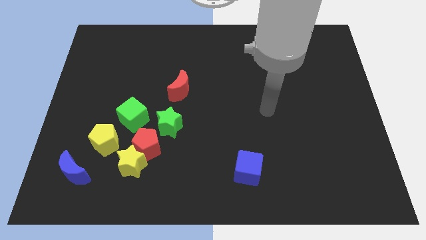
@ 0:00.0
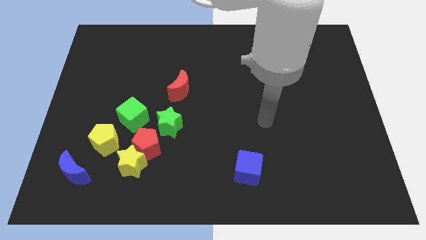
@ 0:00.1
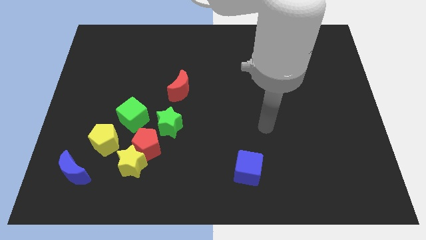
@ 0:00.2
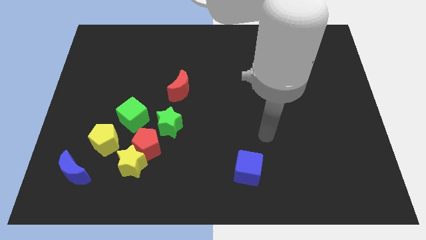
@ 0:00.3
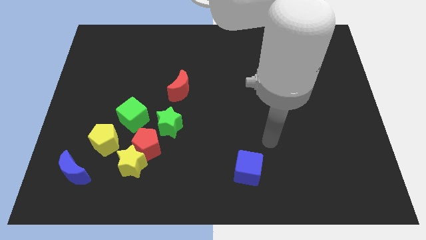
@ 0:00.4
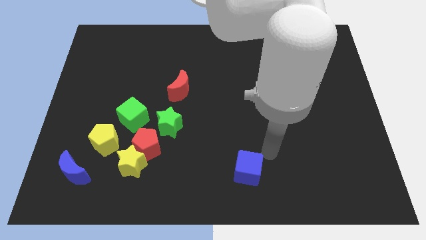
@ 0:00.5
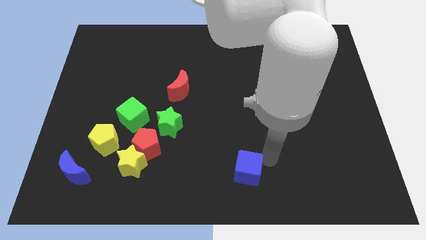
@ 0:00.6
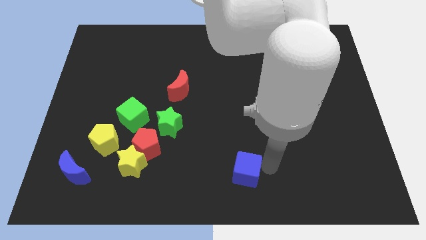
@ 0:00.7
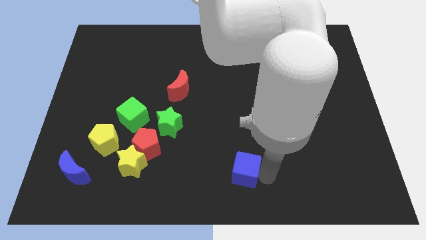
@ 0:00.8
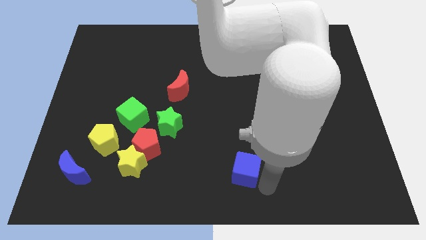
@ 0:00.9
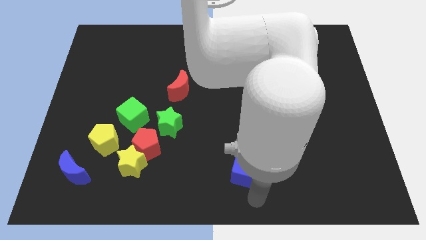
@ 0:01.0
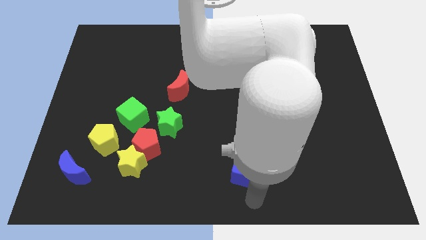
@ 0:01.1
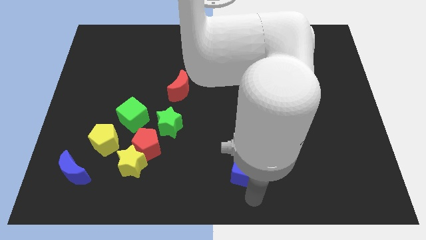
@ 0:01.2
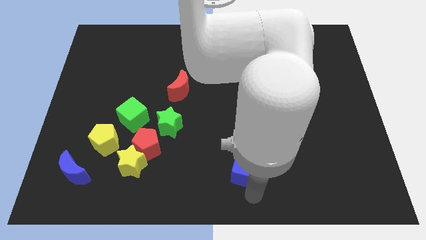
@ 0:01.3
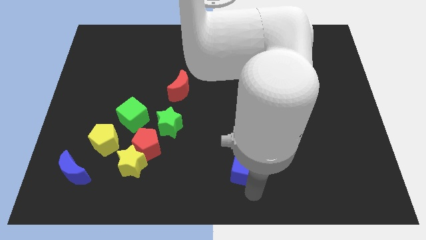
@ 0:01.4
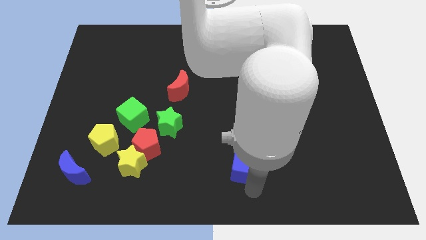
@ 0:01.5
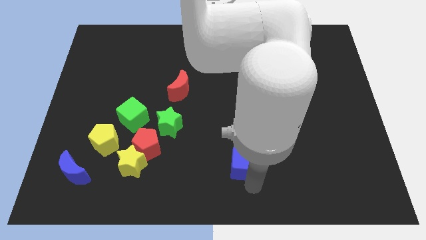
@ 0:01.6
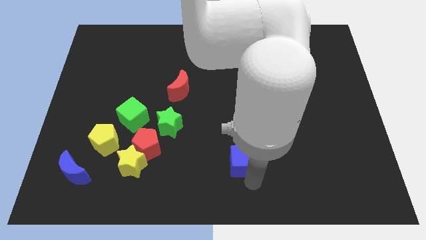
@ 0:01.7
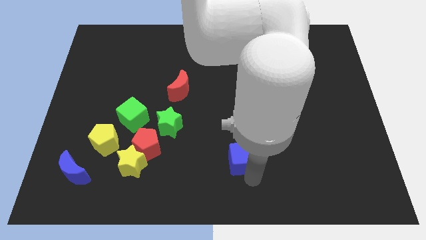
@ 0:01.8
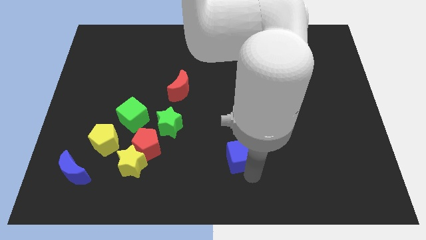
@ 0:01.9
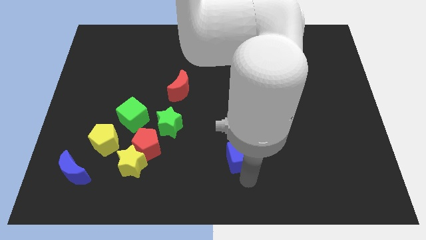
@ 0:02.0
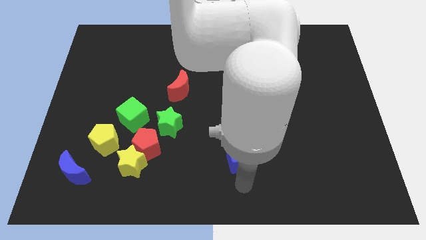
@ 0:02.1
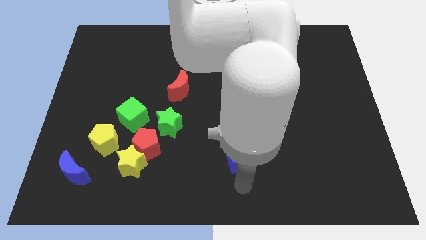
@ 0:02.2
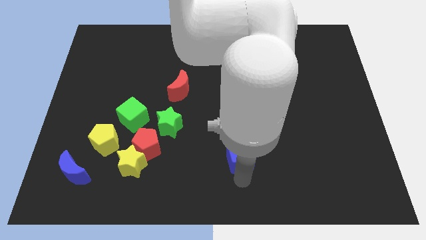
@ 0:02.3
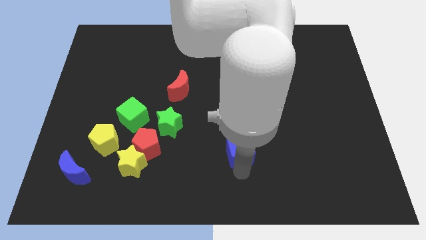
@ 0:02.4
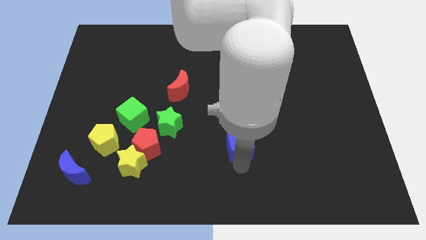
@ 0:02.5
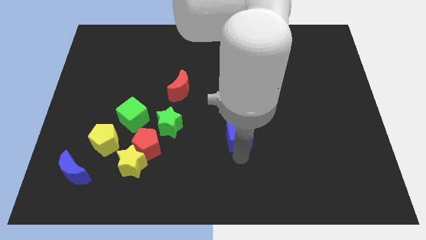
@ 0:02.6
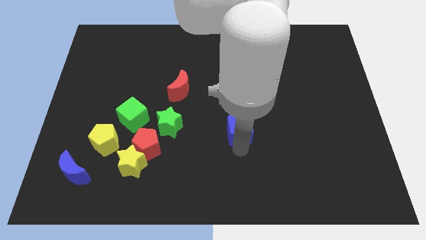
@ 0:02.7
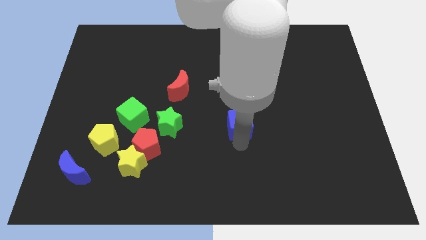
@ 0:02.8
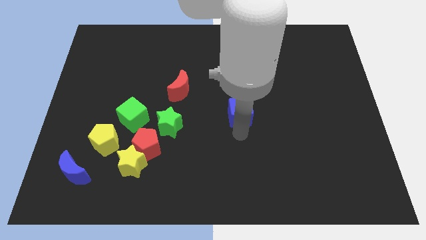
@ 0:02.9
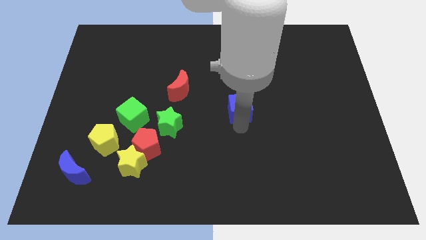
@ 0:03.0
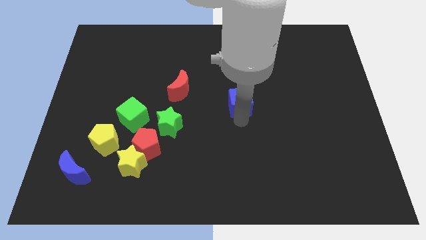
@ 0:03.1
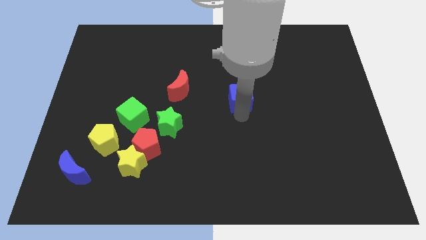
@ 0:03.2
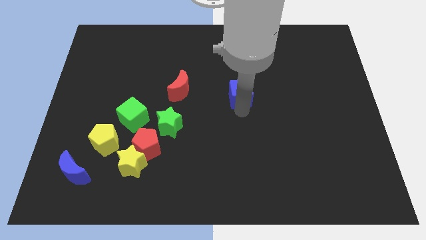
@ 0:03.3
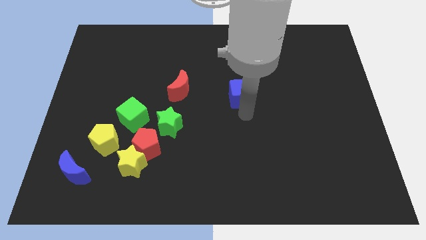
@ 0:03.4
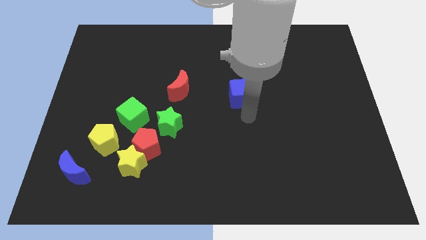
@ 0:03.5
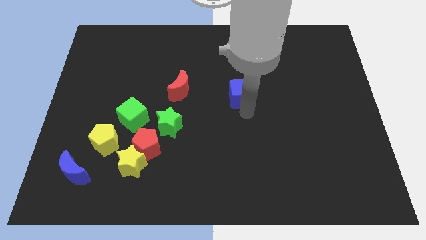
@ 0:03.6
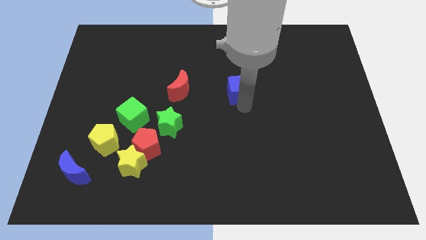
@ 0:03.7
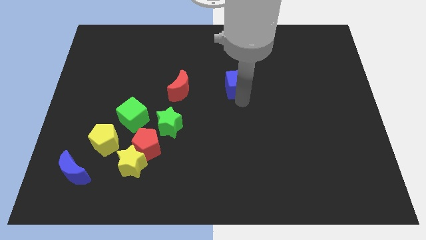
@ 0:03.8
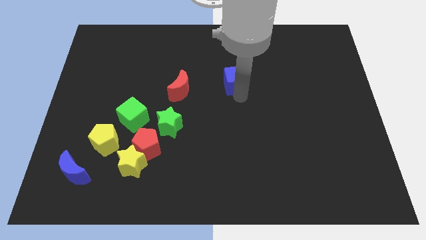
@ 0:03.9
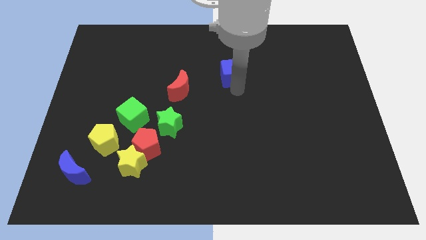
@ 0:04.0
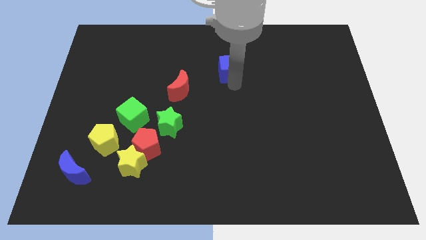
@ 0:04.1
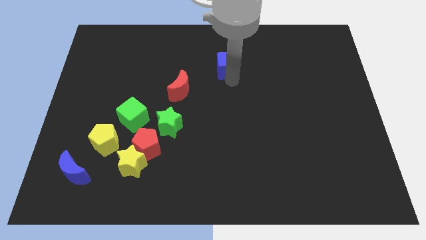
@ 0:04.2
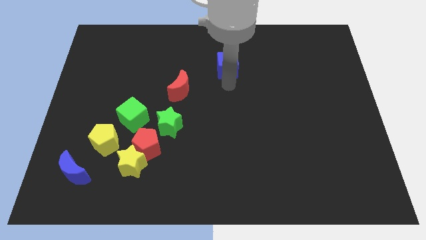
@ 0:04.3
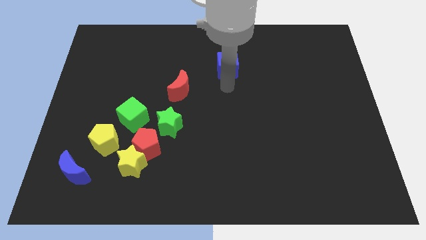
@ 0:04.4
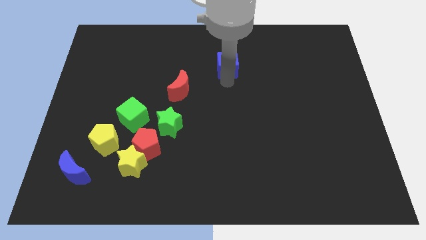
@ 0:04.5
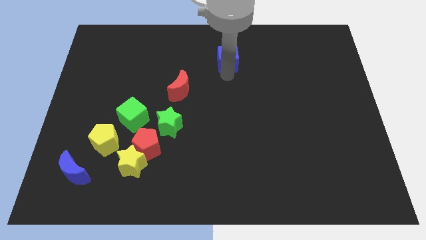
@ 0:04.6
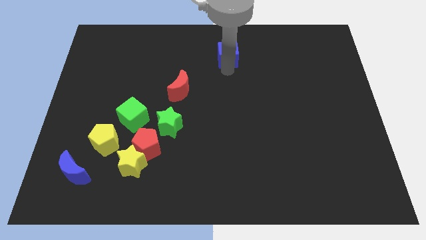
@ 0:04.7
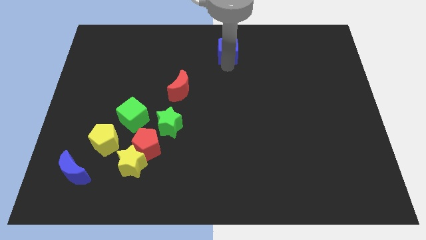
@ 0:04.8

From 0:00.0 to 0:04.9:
put the blue cube to the top side

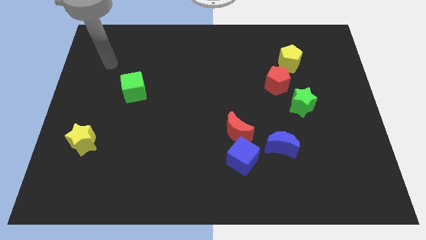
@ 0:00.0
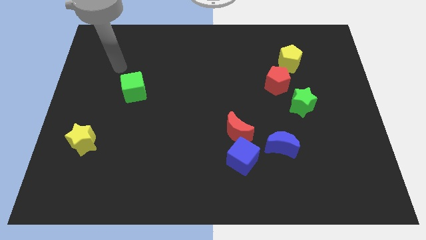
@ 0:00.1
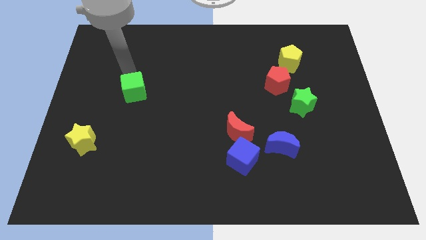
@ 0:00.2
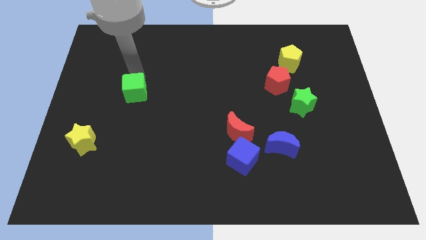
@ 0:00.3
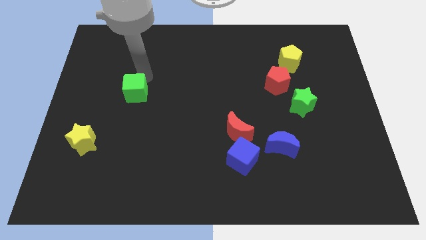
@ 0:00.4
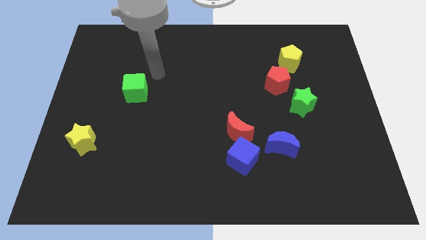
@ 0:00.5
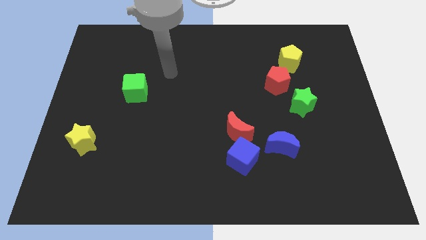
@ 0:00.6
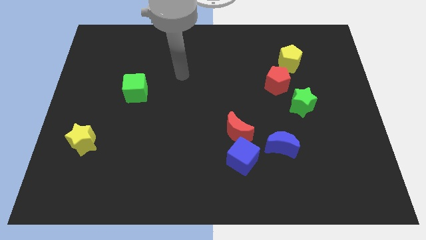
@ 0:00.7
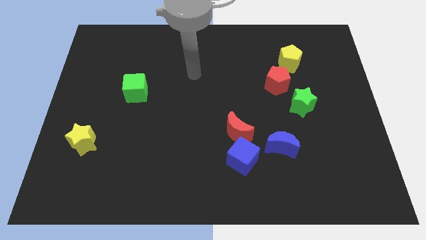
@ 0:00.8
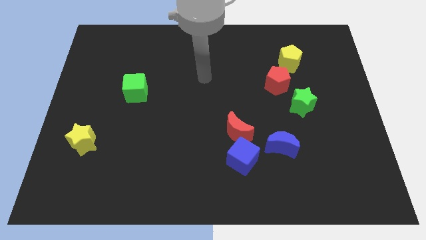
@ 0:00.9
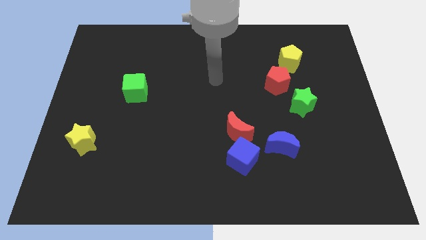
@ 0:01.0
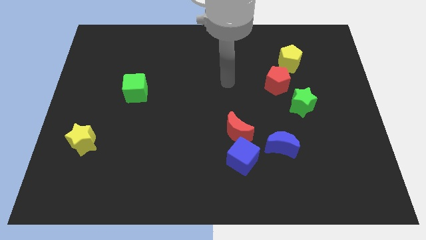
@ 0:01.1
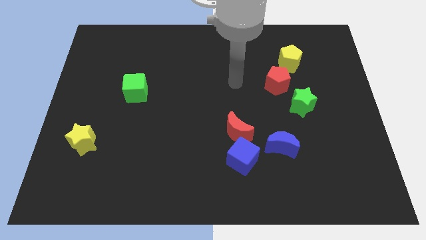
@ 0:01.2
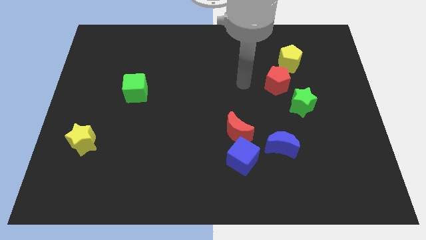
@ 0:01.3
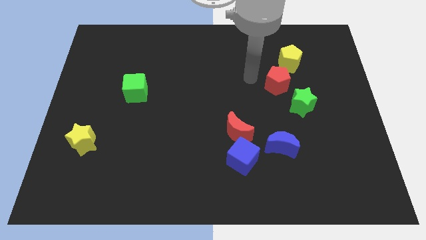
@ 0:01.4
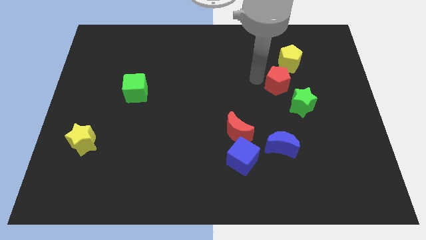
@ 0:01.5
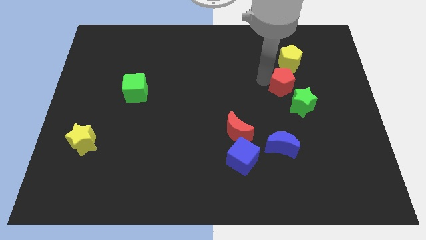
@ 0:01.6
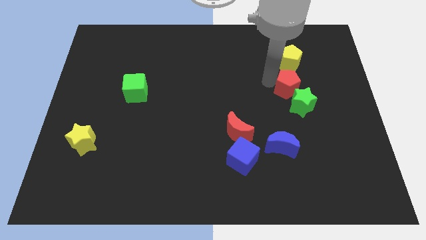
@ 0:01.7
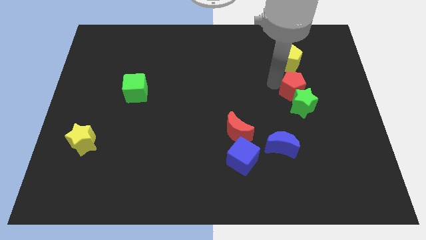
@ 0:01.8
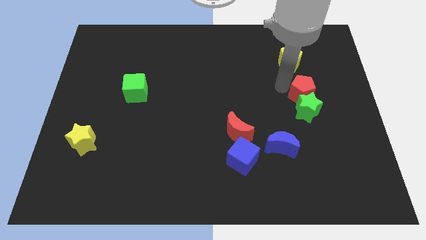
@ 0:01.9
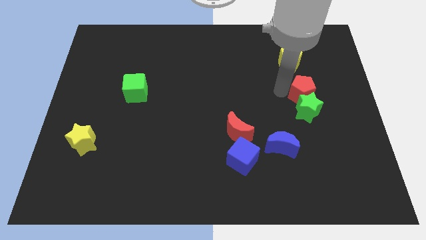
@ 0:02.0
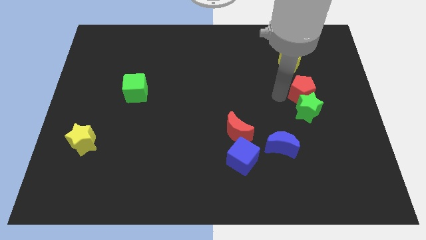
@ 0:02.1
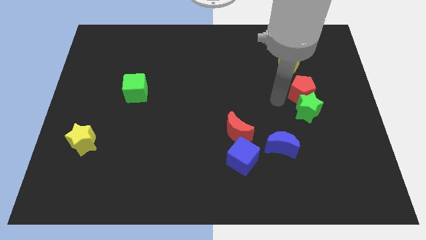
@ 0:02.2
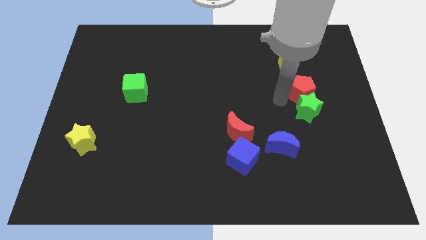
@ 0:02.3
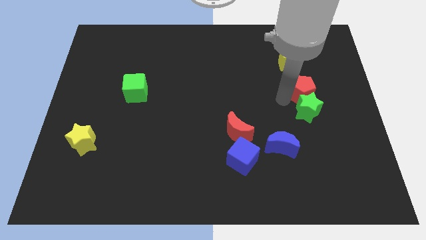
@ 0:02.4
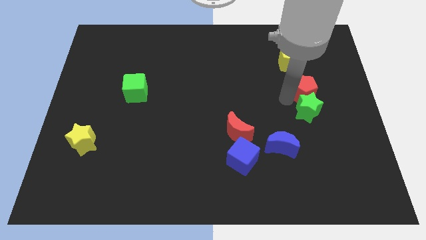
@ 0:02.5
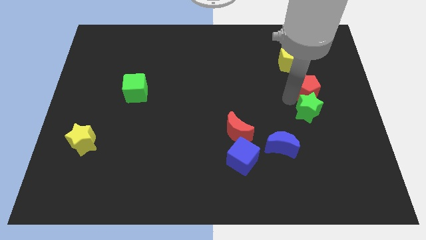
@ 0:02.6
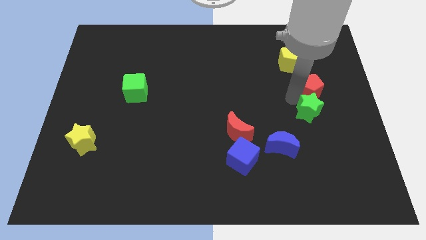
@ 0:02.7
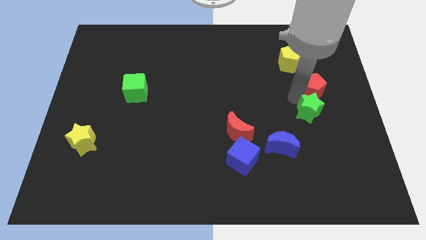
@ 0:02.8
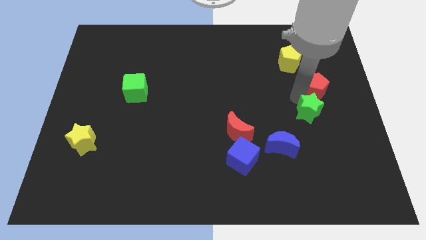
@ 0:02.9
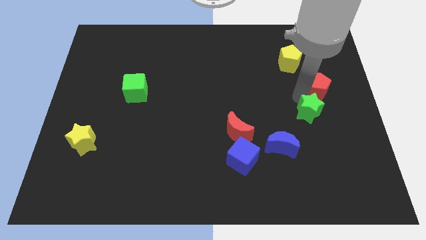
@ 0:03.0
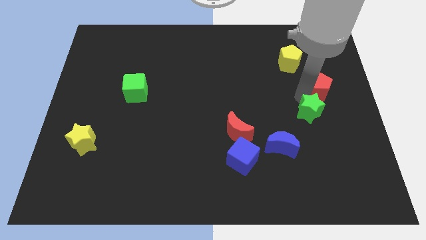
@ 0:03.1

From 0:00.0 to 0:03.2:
slide the red pentagon to the center right
